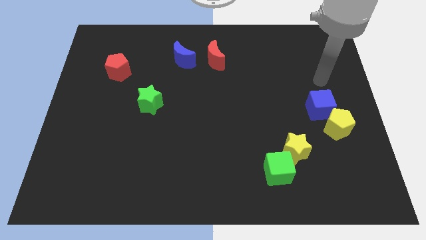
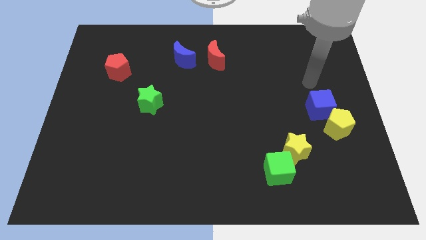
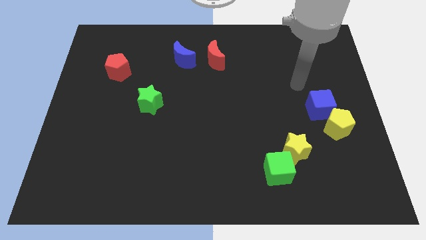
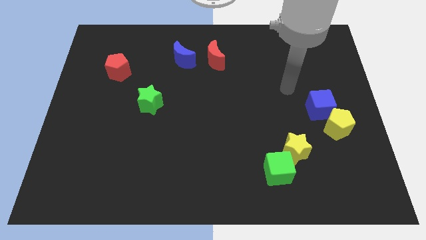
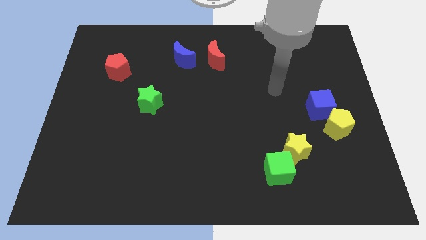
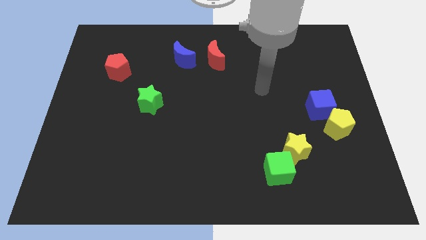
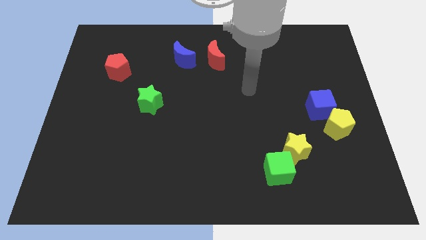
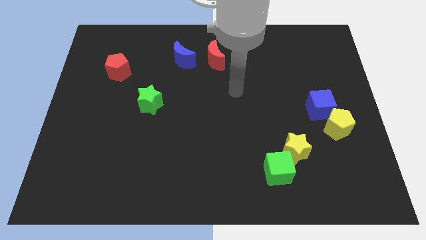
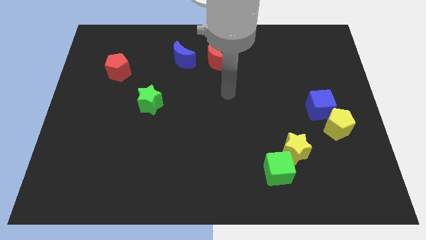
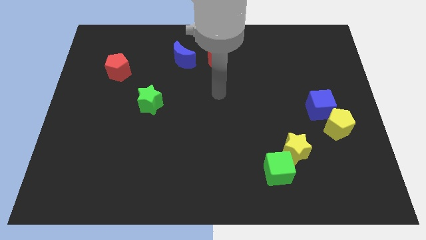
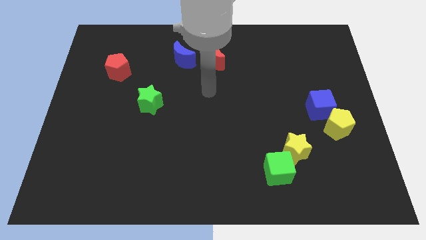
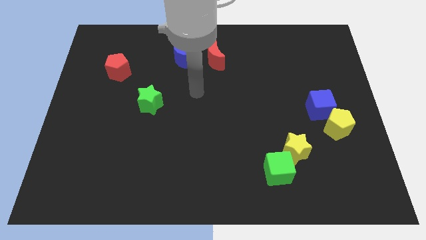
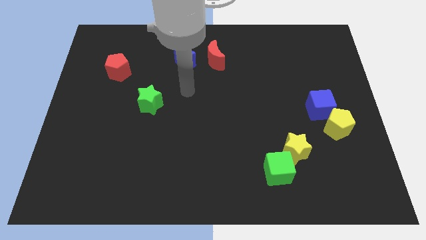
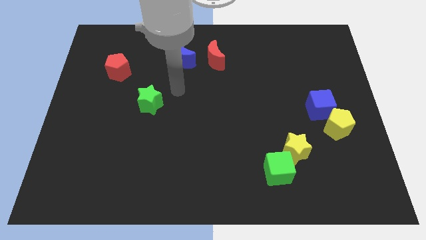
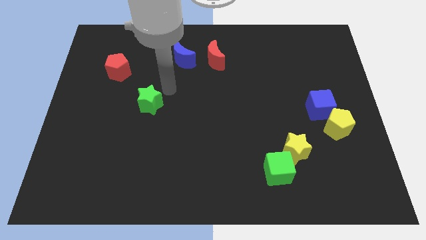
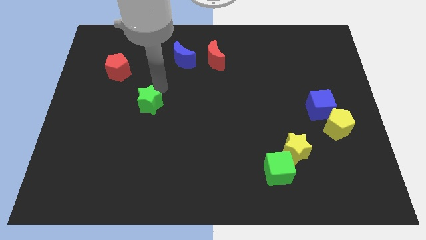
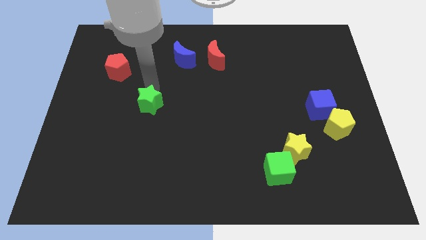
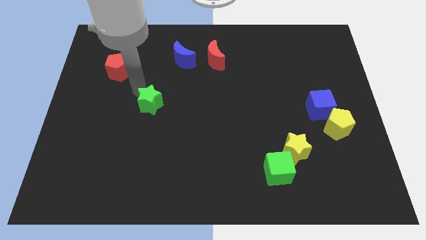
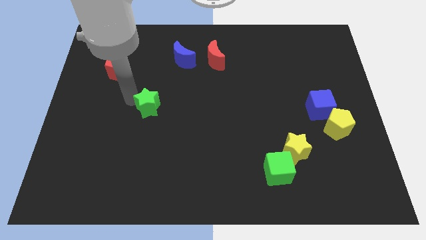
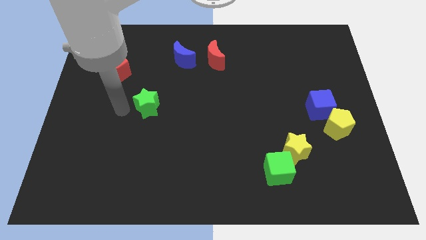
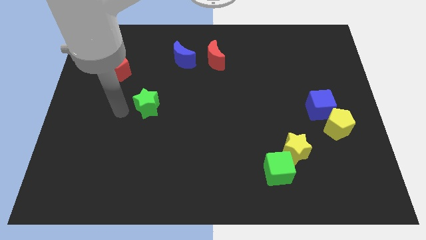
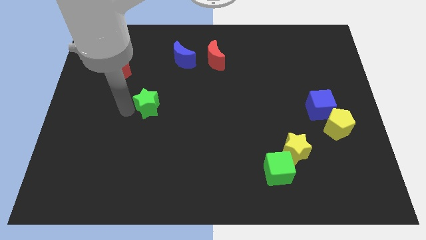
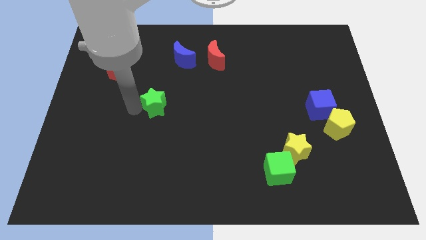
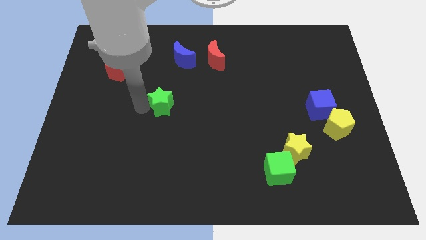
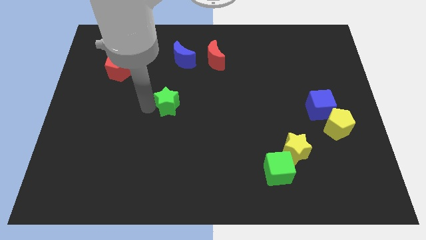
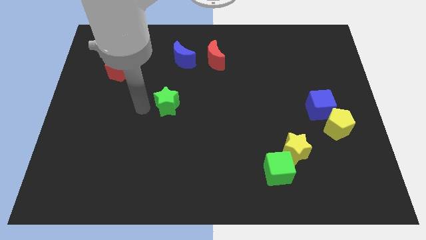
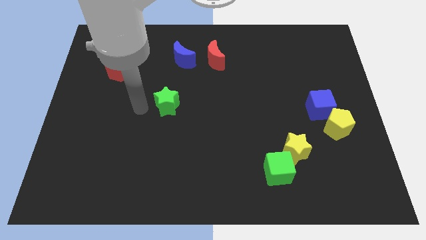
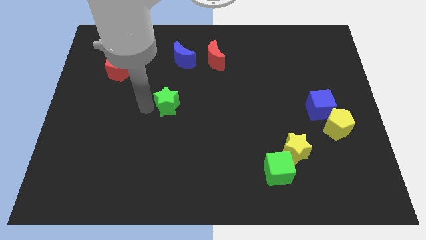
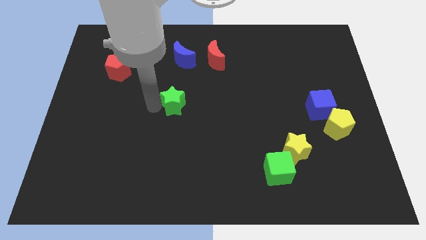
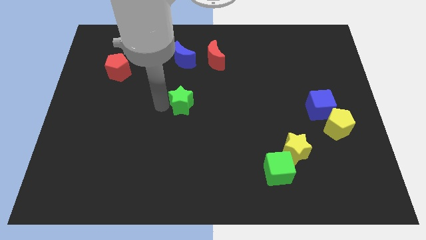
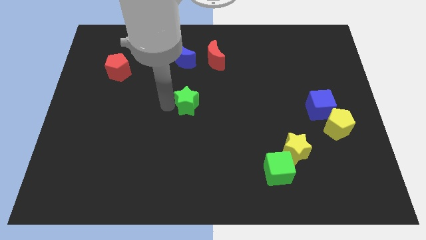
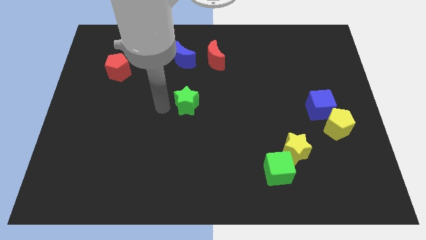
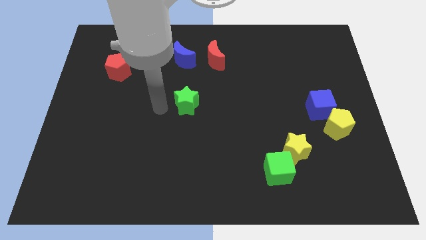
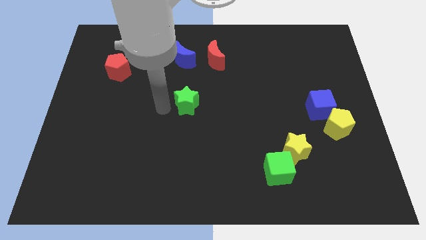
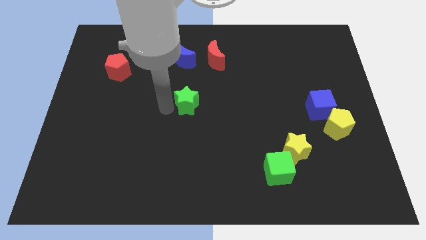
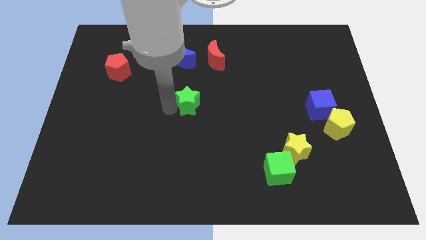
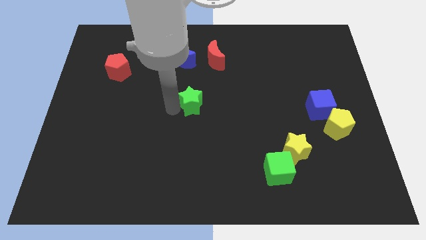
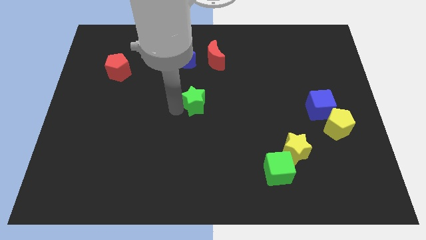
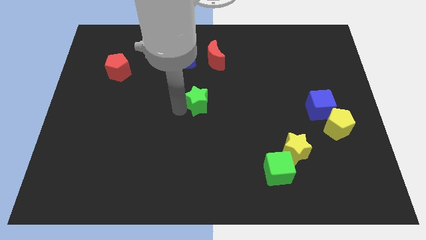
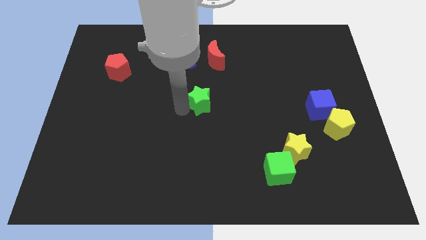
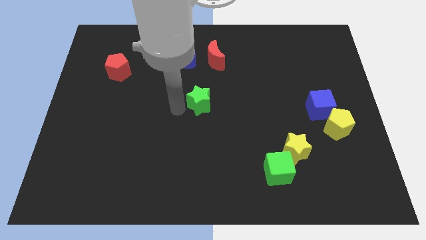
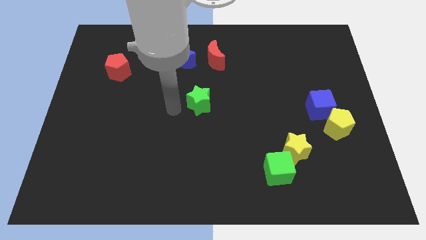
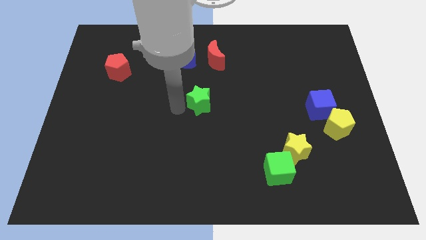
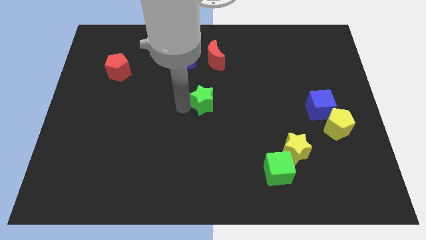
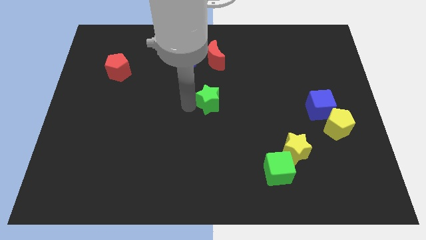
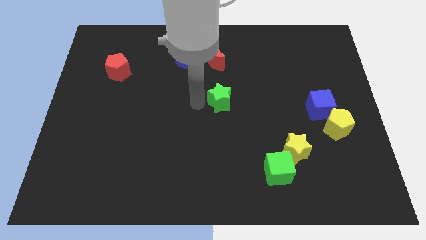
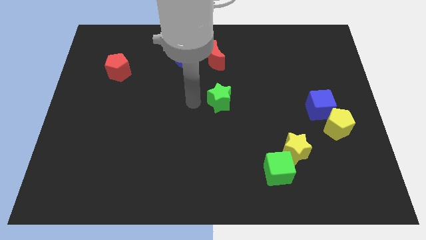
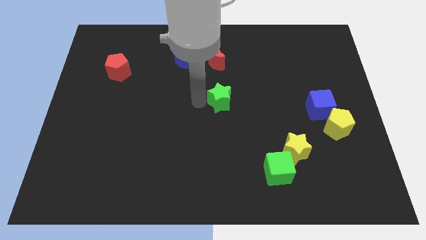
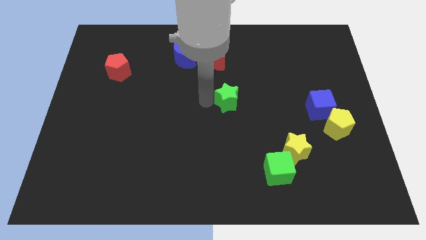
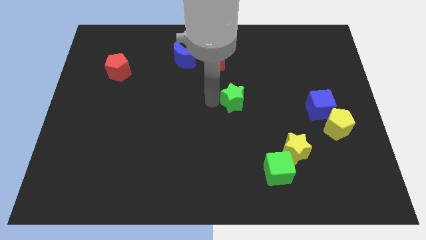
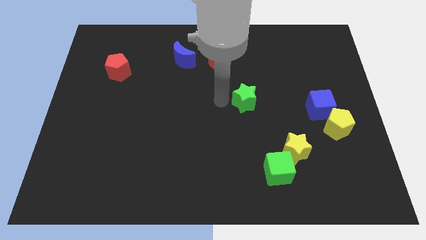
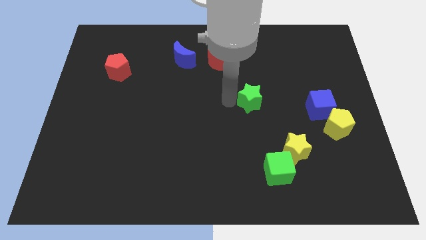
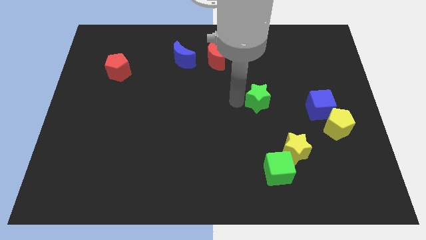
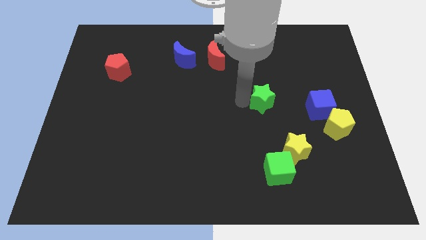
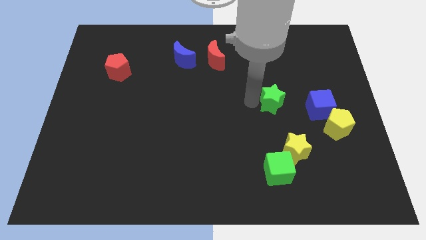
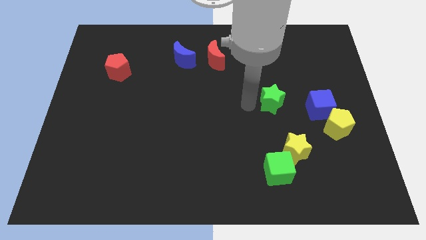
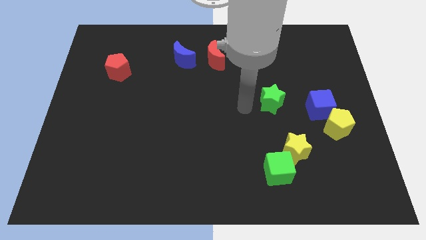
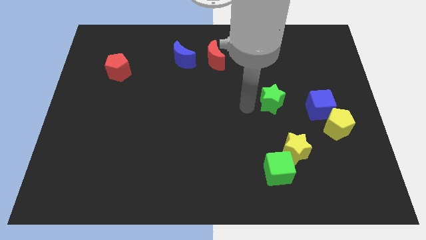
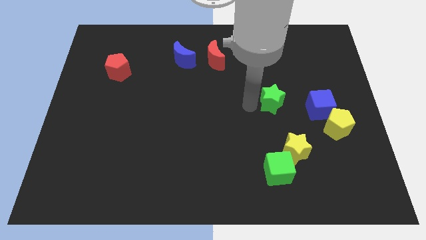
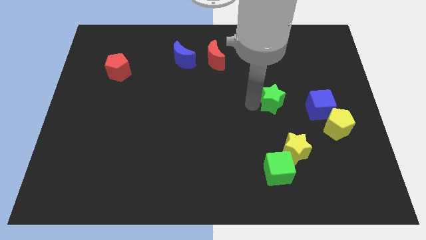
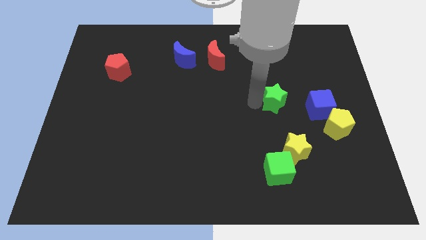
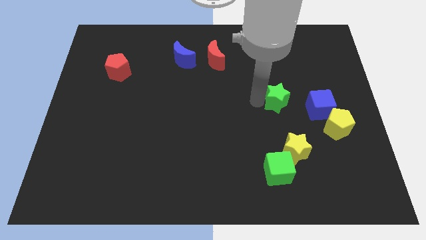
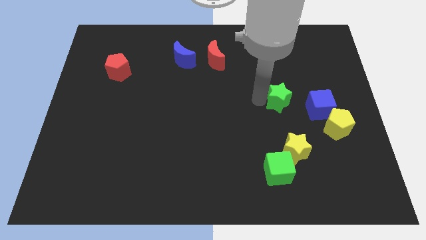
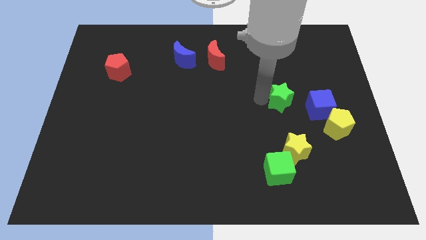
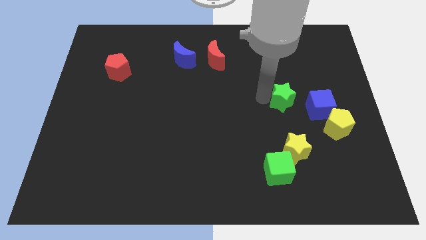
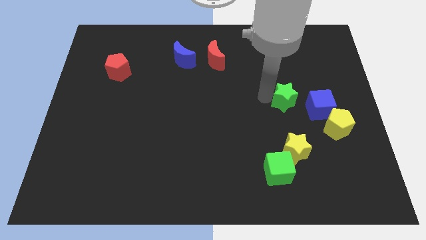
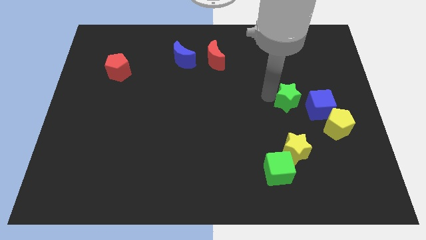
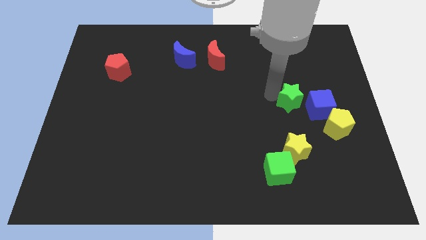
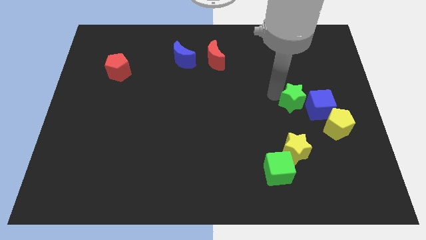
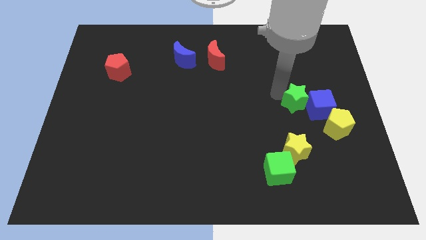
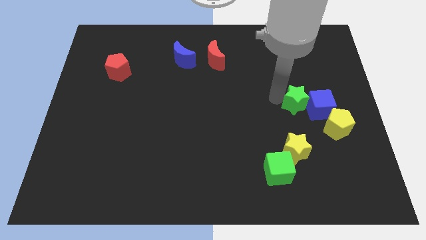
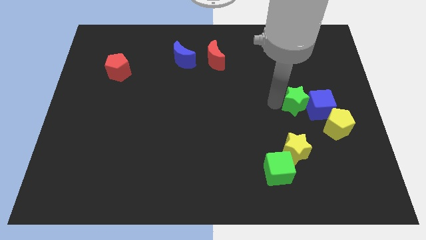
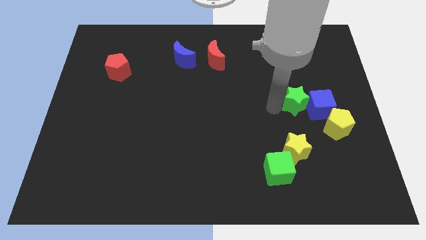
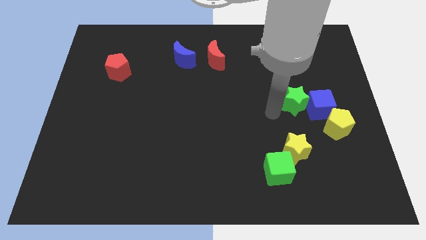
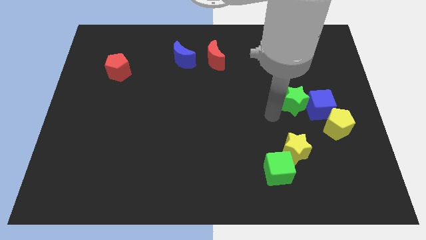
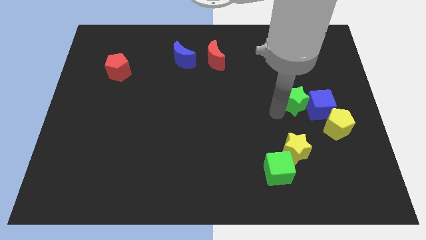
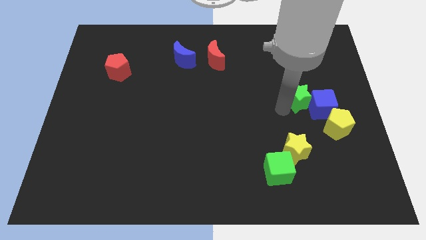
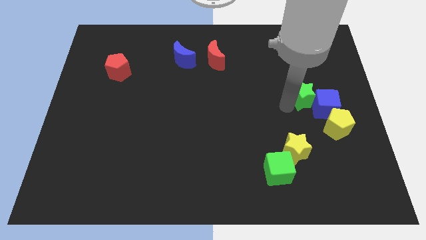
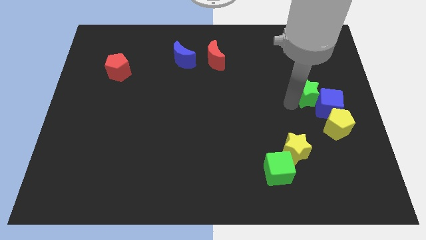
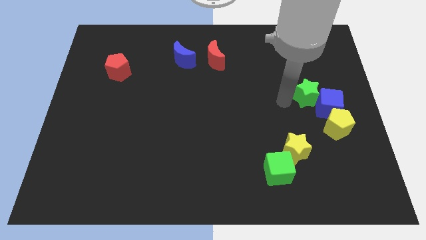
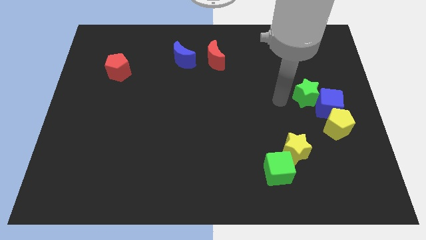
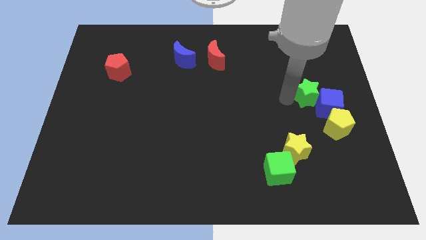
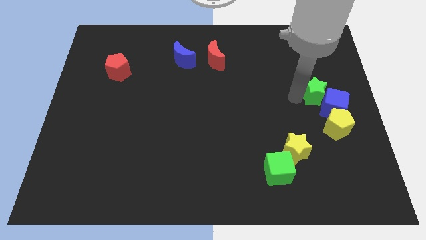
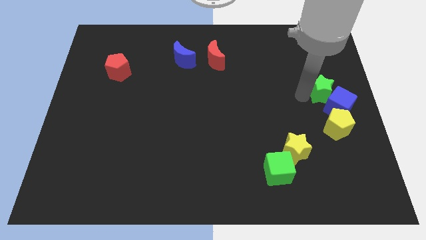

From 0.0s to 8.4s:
slide the green star to the right side of the board
